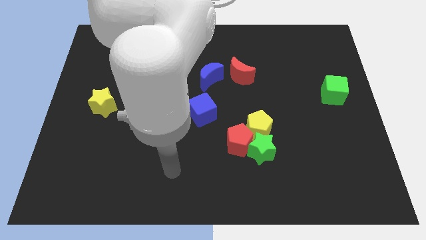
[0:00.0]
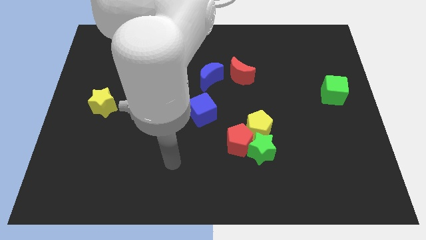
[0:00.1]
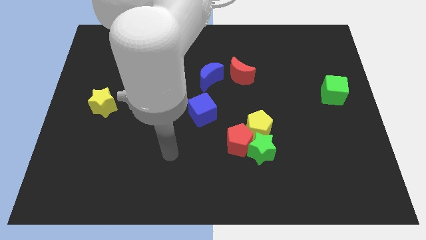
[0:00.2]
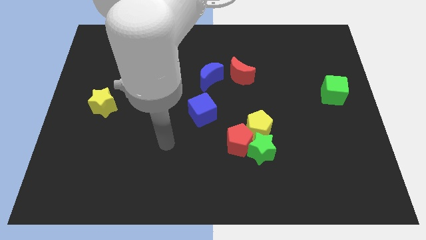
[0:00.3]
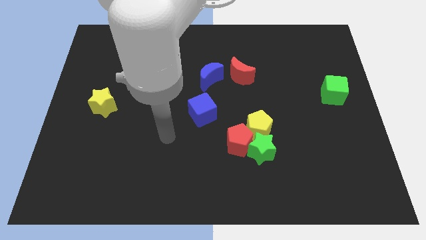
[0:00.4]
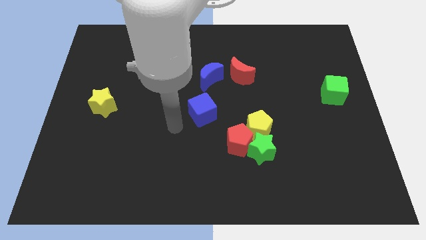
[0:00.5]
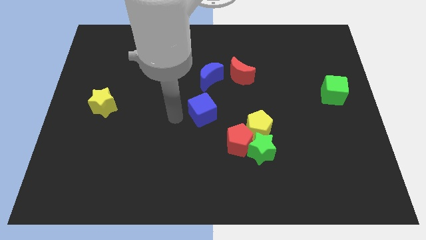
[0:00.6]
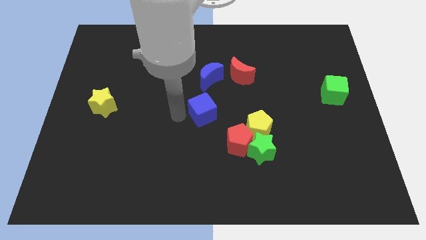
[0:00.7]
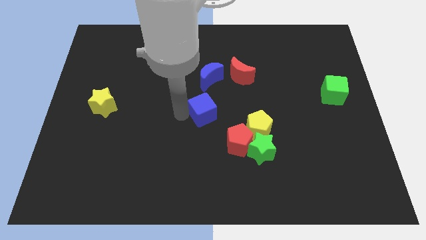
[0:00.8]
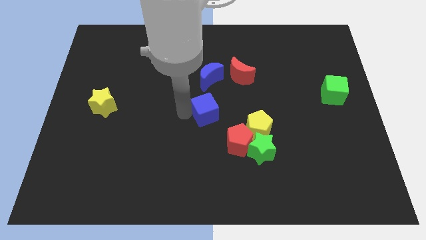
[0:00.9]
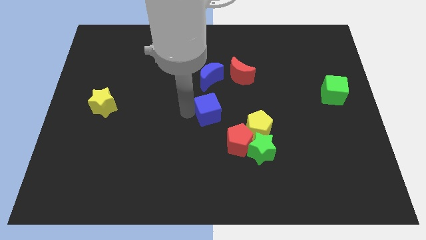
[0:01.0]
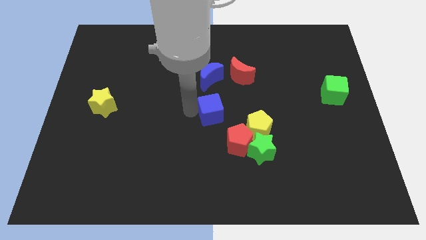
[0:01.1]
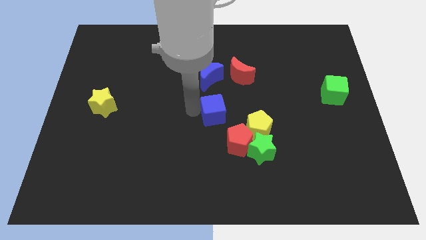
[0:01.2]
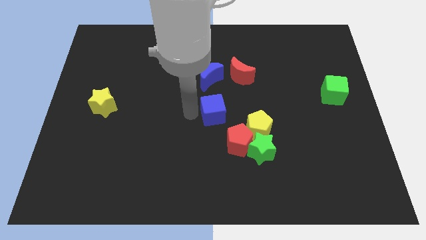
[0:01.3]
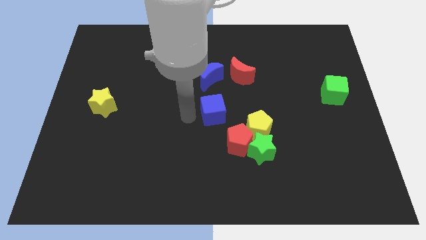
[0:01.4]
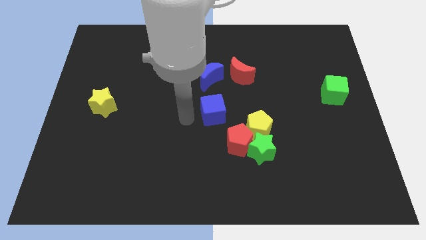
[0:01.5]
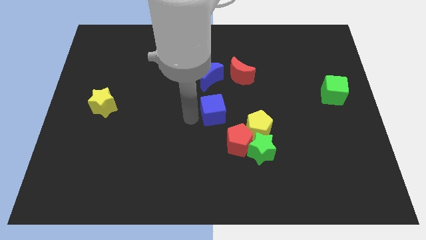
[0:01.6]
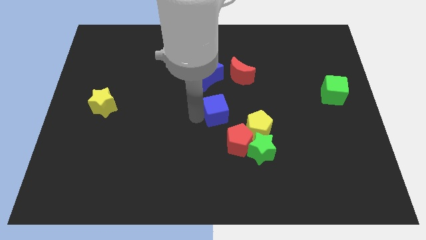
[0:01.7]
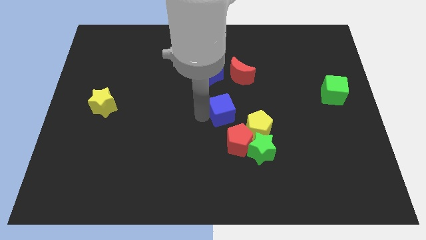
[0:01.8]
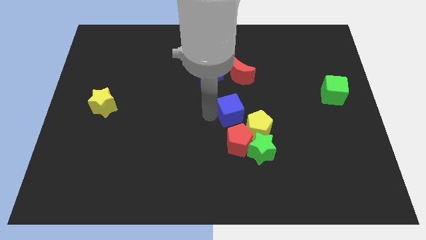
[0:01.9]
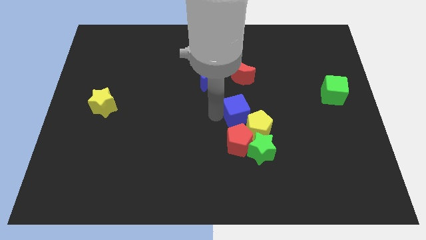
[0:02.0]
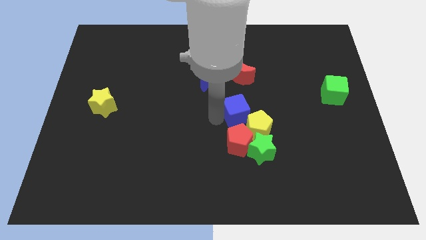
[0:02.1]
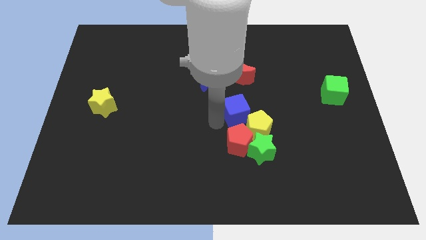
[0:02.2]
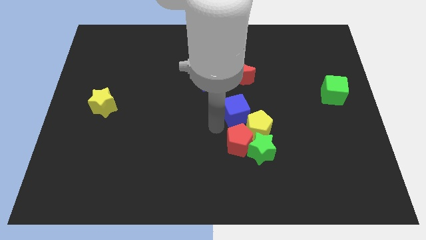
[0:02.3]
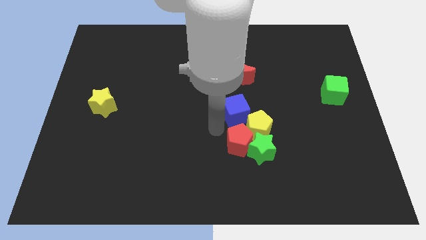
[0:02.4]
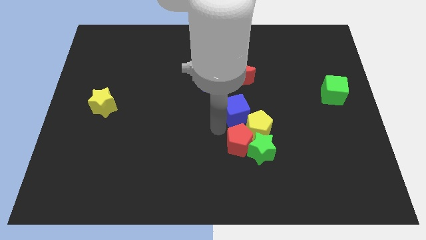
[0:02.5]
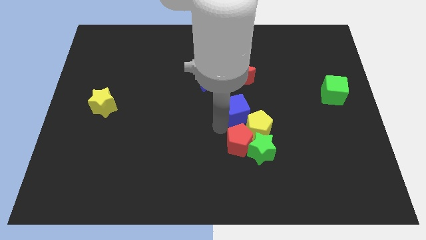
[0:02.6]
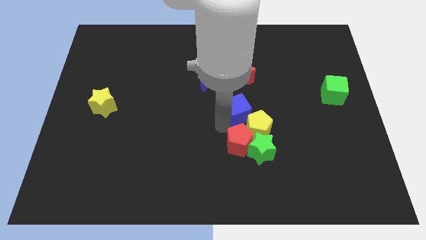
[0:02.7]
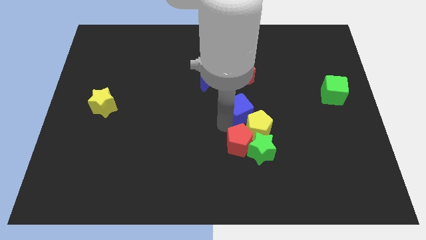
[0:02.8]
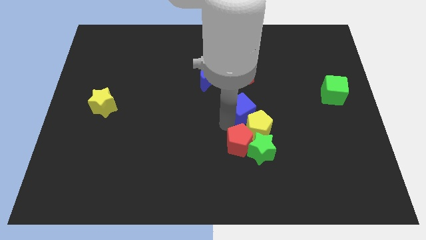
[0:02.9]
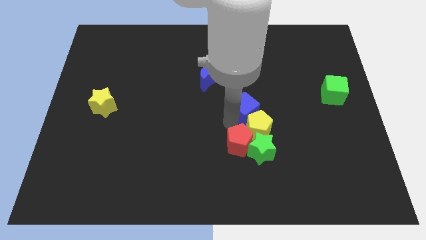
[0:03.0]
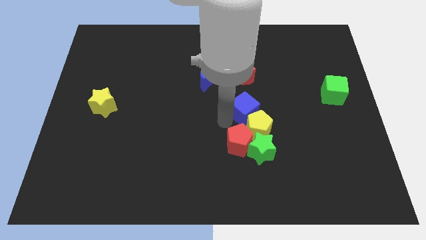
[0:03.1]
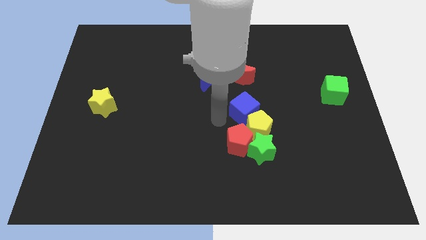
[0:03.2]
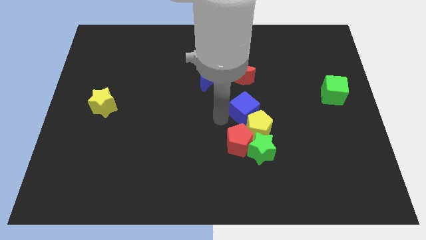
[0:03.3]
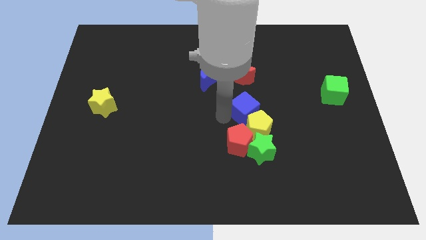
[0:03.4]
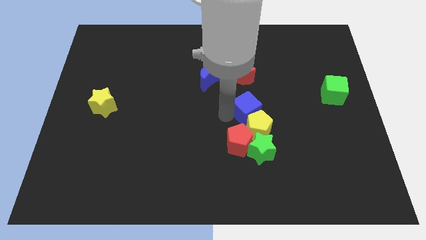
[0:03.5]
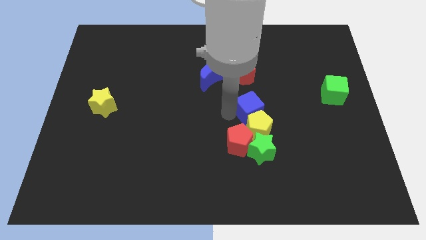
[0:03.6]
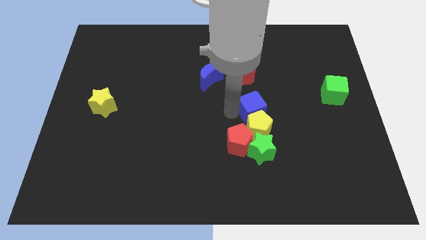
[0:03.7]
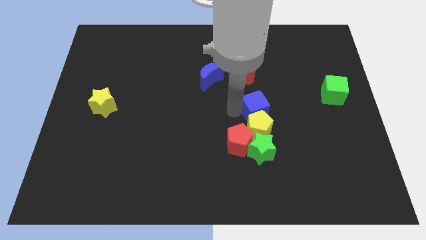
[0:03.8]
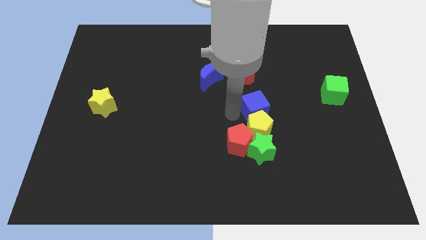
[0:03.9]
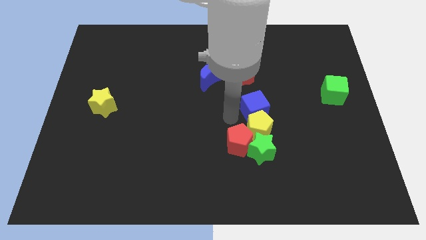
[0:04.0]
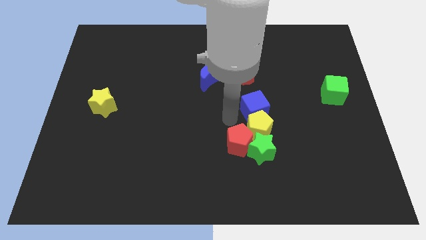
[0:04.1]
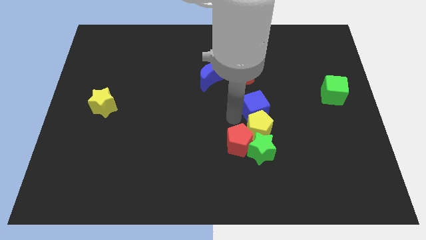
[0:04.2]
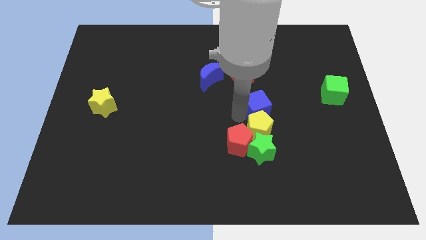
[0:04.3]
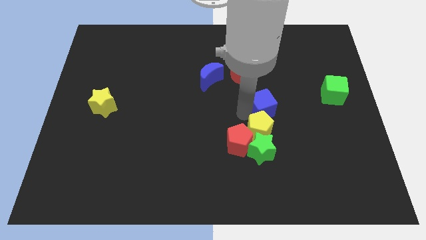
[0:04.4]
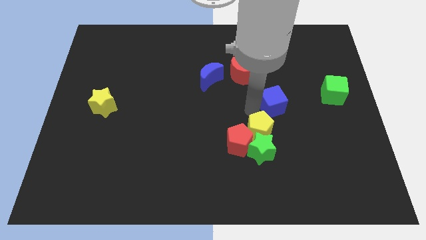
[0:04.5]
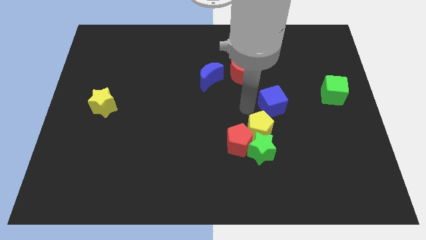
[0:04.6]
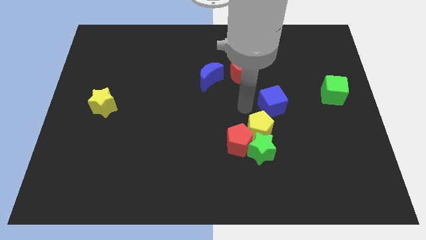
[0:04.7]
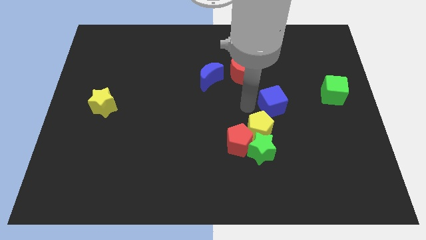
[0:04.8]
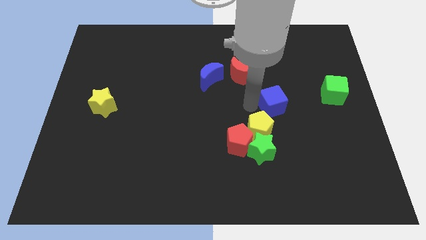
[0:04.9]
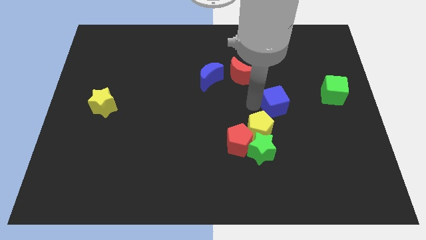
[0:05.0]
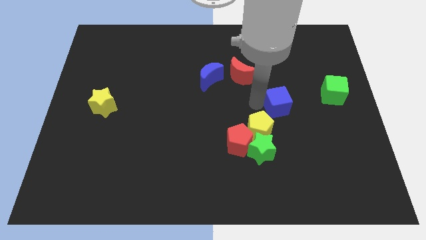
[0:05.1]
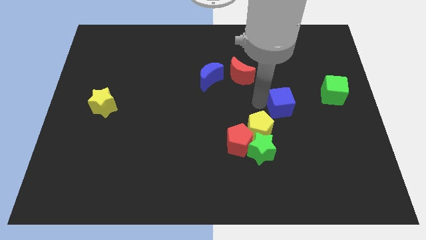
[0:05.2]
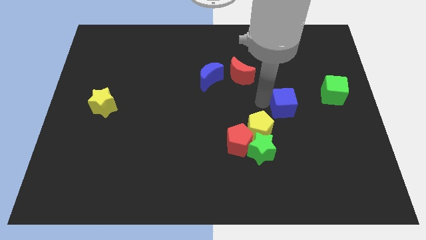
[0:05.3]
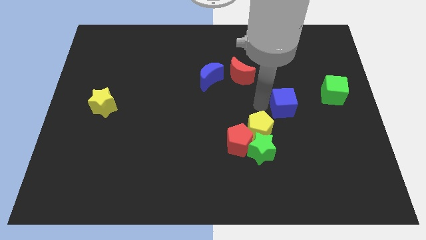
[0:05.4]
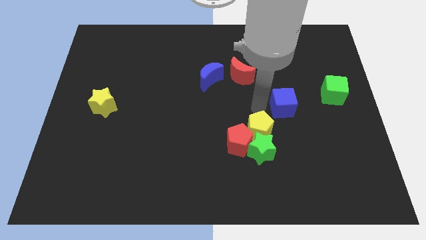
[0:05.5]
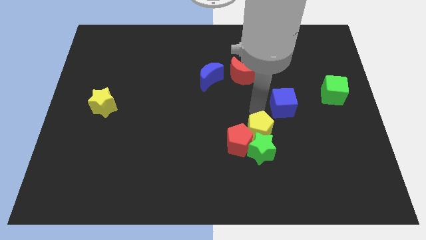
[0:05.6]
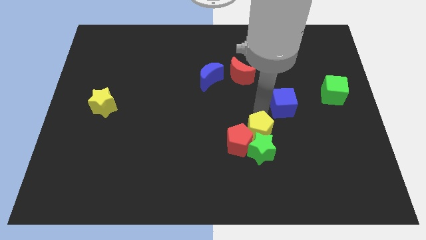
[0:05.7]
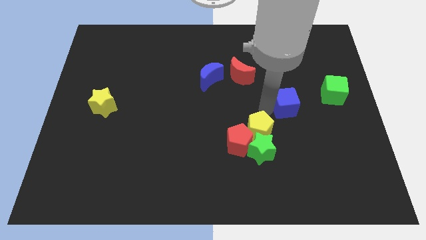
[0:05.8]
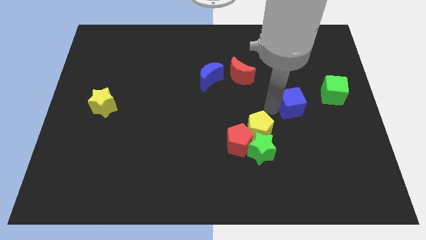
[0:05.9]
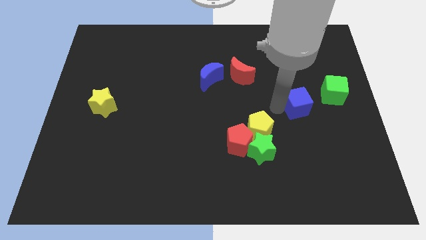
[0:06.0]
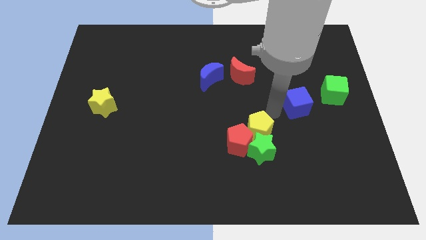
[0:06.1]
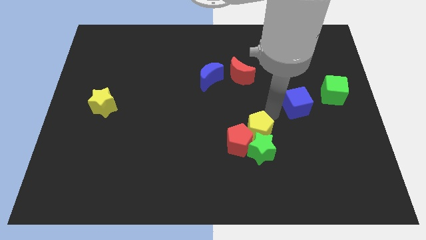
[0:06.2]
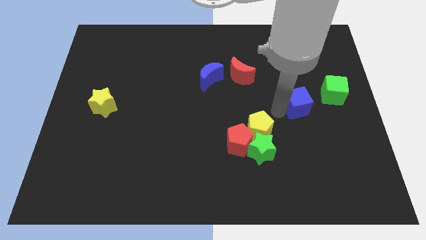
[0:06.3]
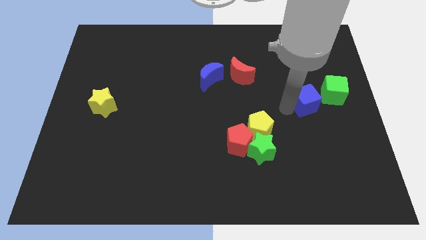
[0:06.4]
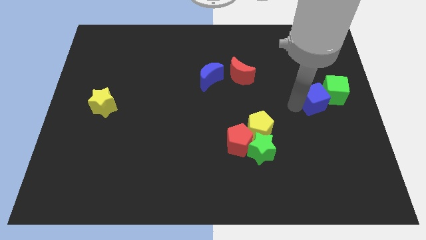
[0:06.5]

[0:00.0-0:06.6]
move the blue cube towards the green cube

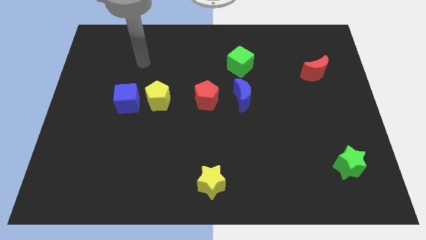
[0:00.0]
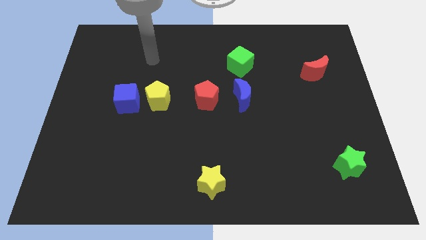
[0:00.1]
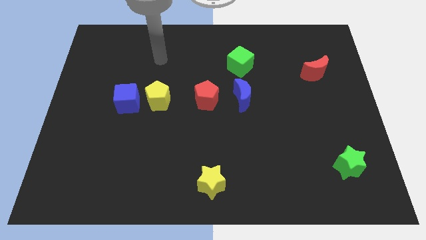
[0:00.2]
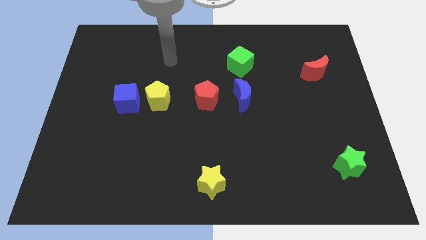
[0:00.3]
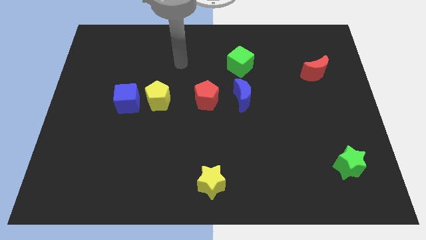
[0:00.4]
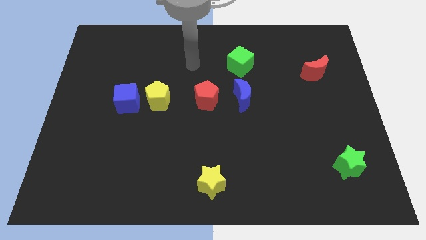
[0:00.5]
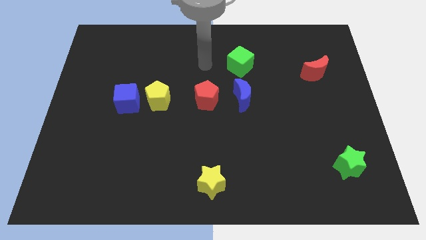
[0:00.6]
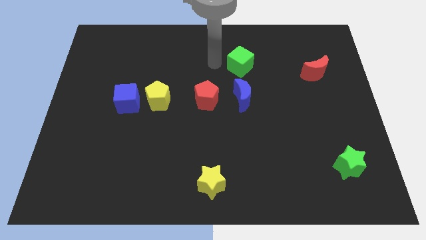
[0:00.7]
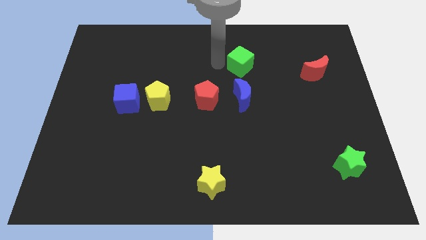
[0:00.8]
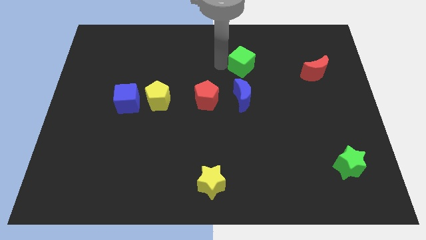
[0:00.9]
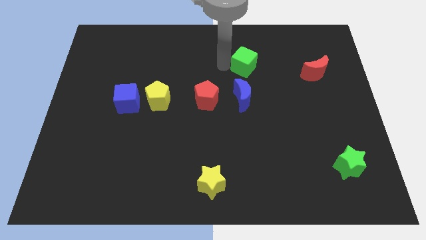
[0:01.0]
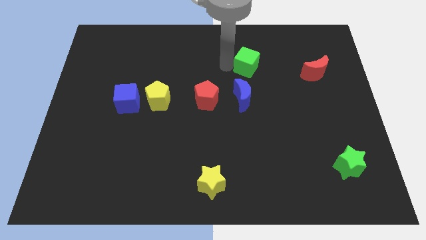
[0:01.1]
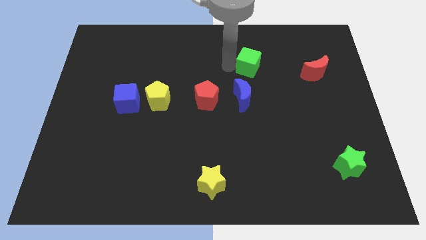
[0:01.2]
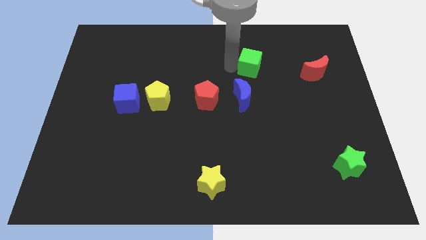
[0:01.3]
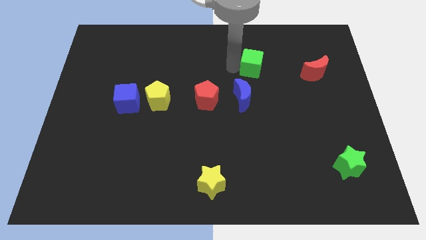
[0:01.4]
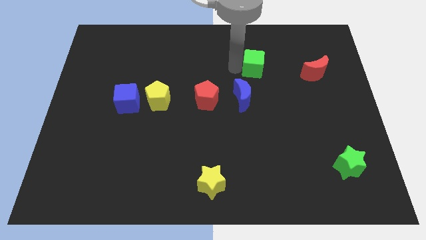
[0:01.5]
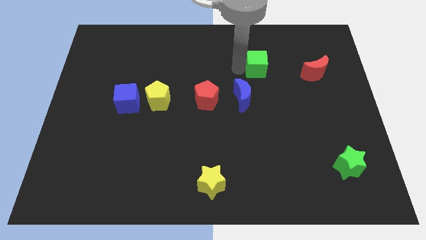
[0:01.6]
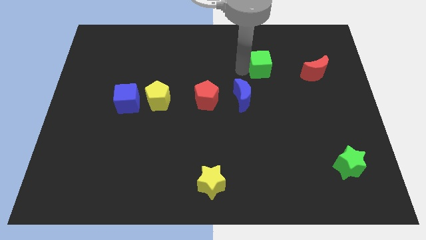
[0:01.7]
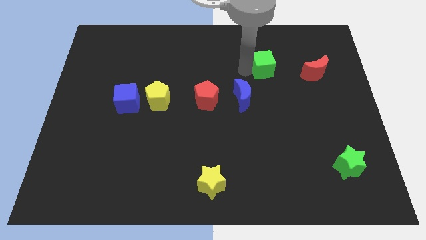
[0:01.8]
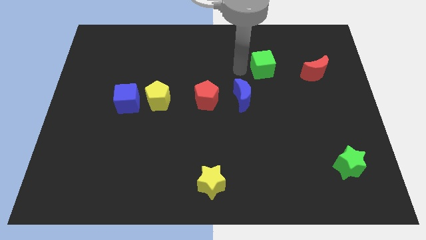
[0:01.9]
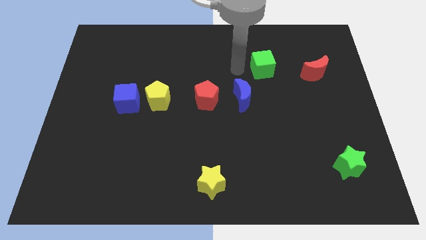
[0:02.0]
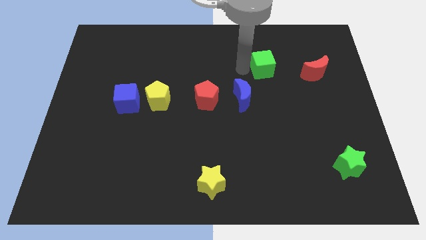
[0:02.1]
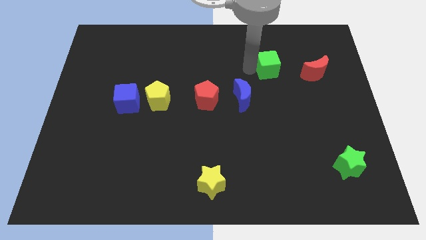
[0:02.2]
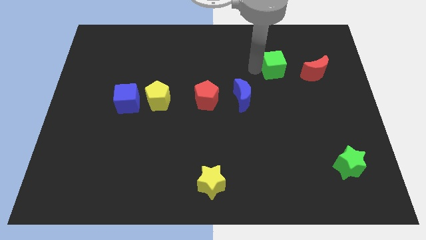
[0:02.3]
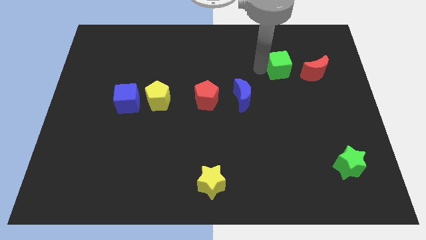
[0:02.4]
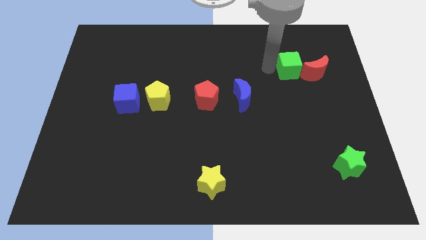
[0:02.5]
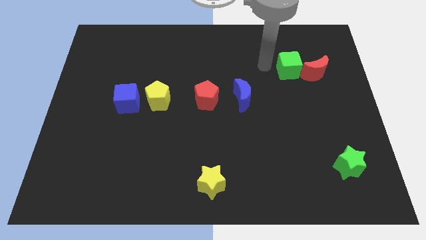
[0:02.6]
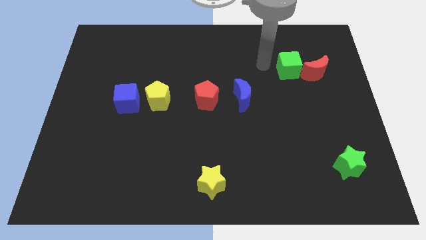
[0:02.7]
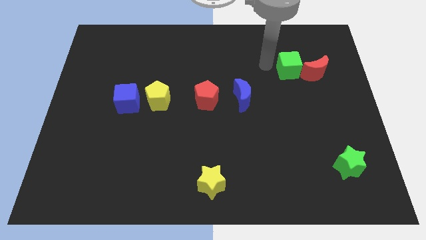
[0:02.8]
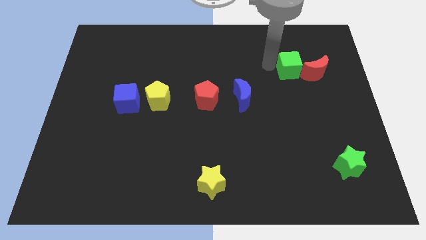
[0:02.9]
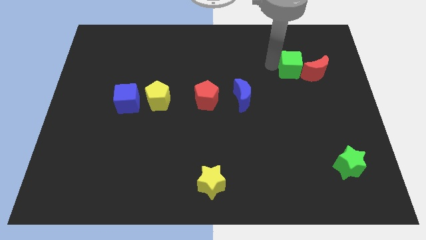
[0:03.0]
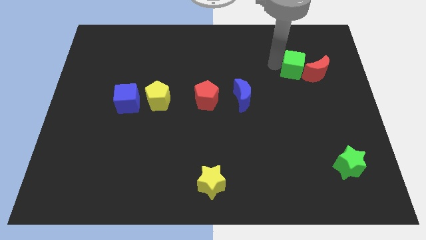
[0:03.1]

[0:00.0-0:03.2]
put the green cube to the red moon
